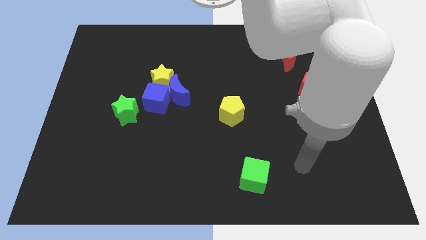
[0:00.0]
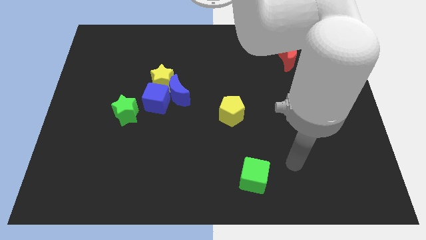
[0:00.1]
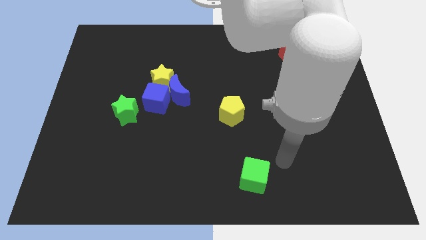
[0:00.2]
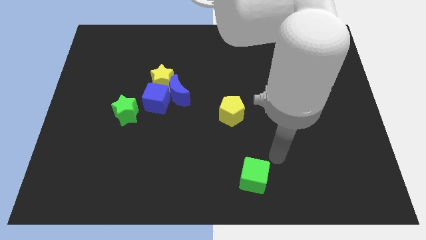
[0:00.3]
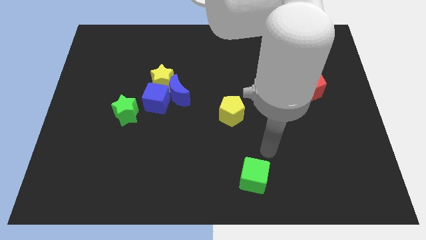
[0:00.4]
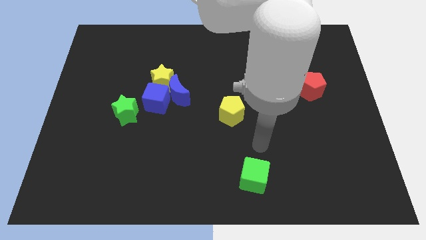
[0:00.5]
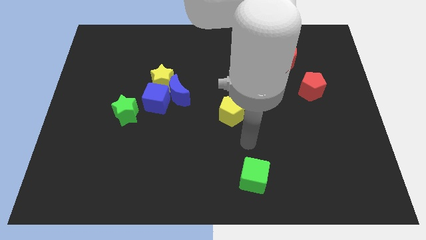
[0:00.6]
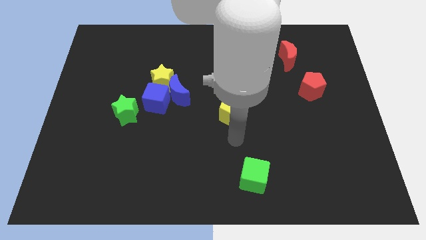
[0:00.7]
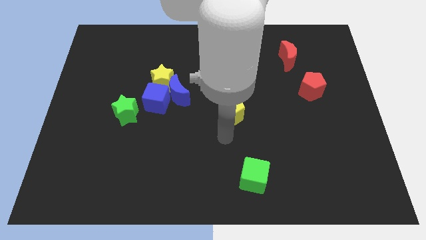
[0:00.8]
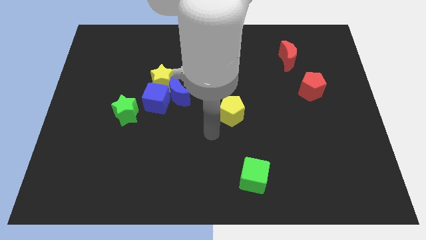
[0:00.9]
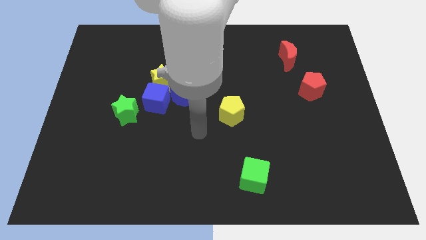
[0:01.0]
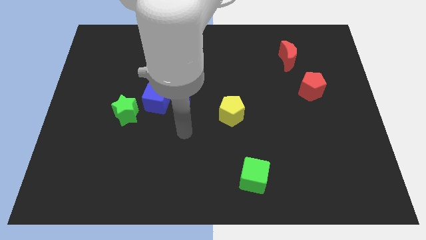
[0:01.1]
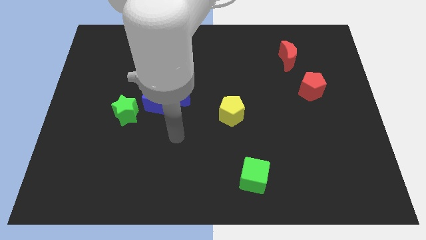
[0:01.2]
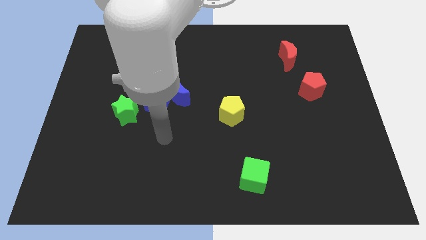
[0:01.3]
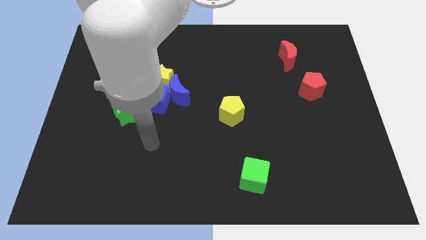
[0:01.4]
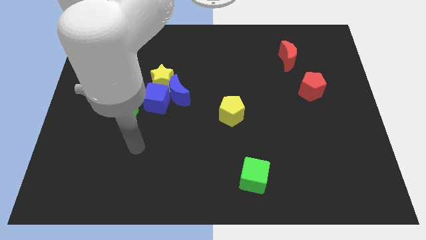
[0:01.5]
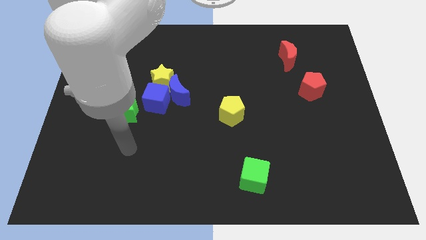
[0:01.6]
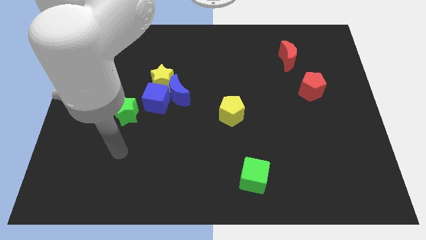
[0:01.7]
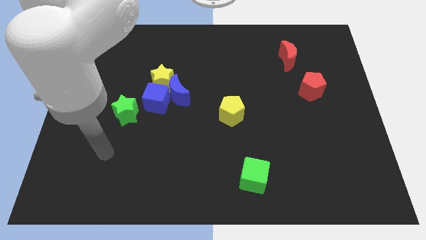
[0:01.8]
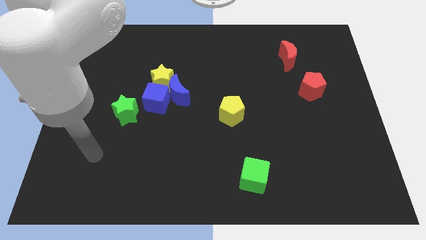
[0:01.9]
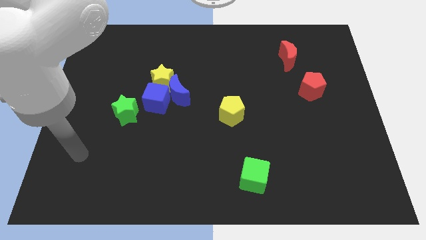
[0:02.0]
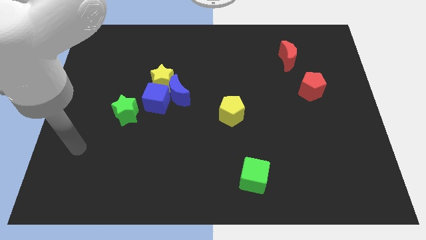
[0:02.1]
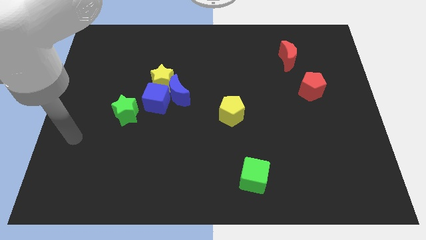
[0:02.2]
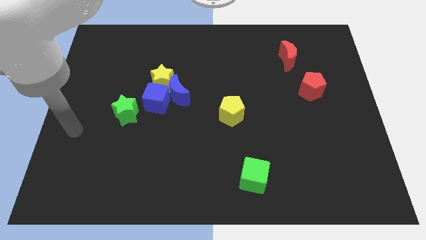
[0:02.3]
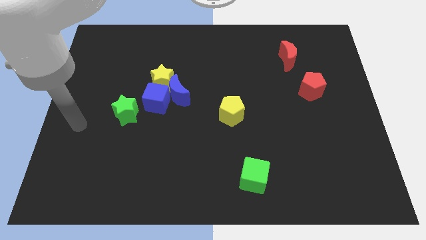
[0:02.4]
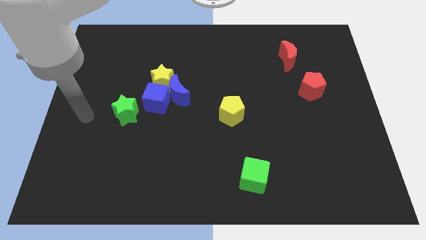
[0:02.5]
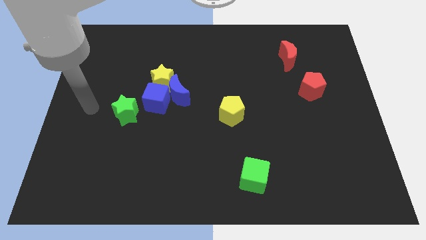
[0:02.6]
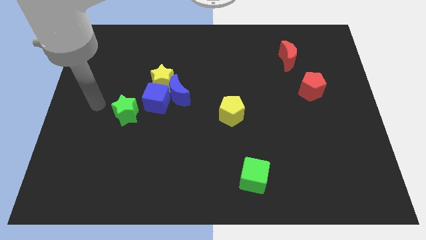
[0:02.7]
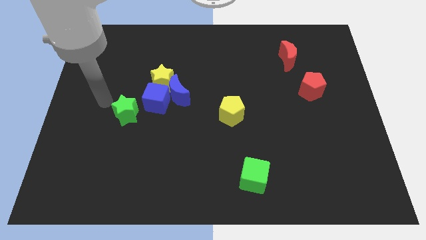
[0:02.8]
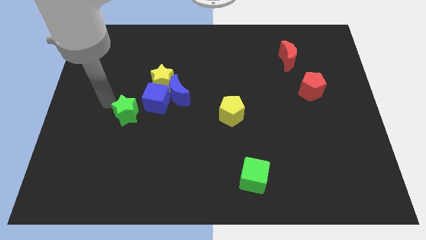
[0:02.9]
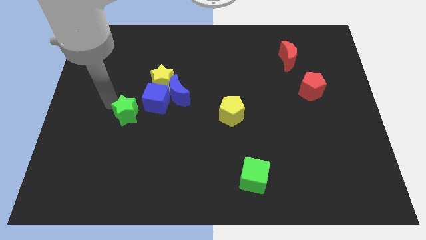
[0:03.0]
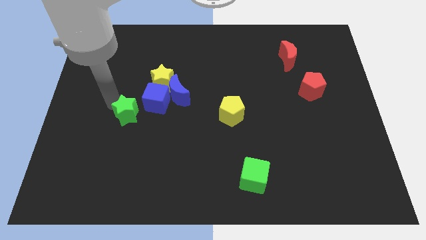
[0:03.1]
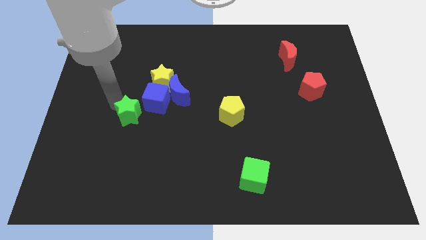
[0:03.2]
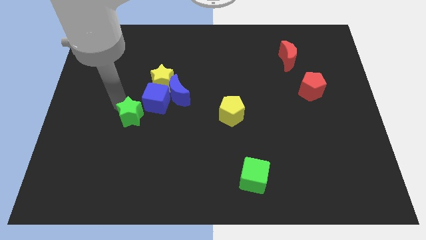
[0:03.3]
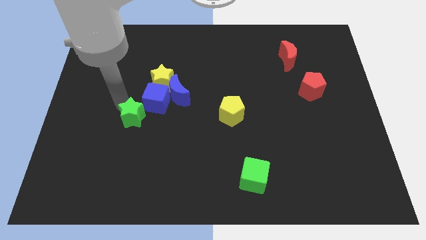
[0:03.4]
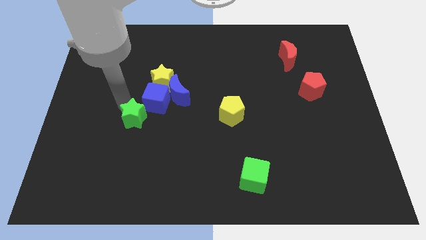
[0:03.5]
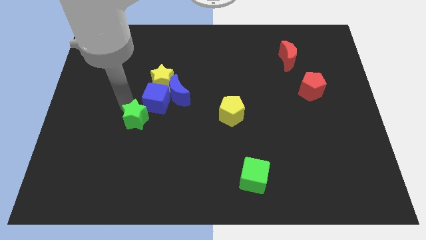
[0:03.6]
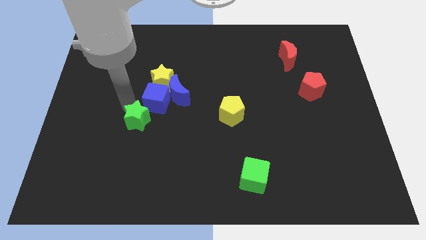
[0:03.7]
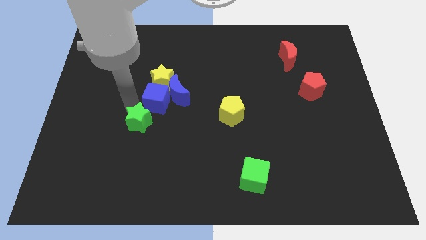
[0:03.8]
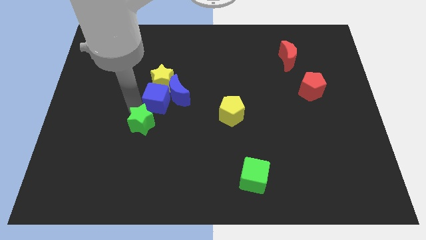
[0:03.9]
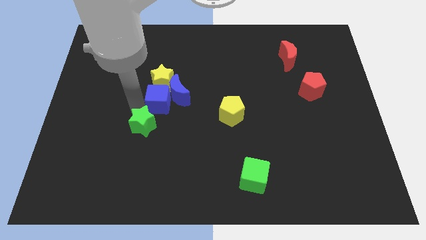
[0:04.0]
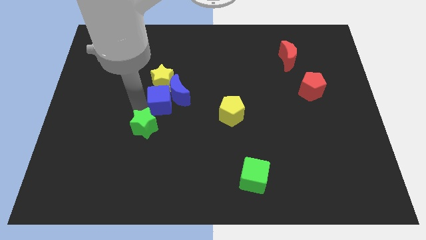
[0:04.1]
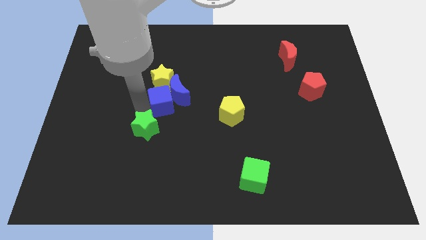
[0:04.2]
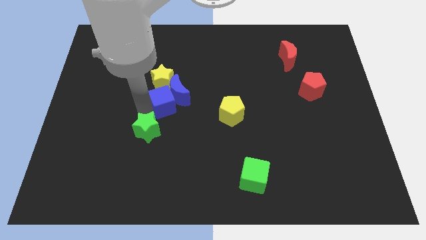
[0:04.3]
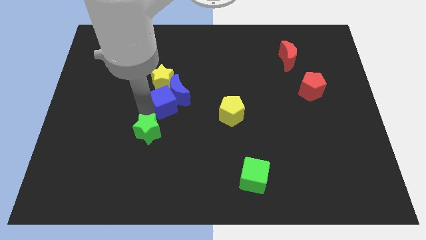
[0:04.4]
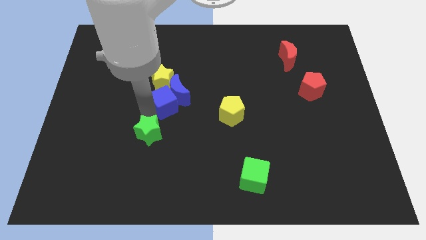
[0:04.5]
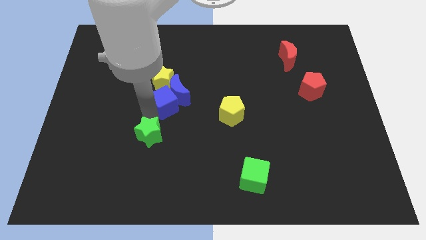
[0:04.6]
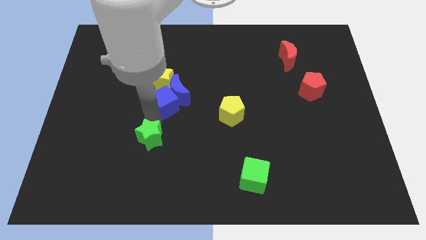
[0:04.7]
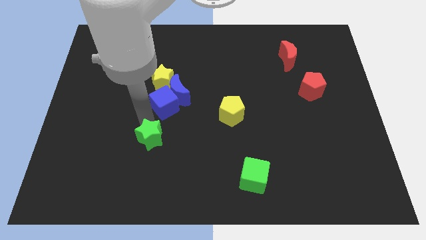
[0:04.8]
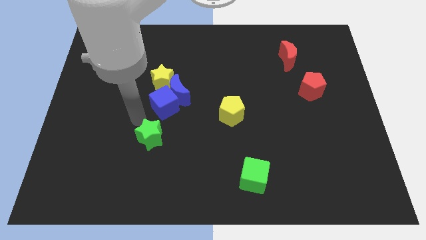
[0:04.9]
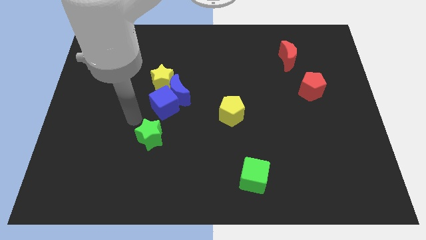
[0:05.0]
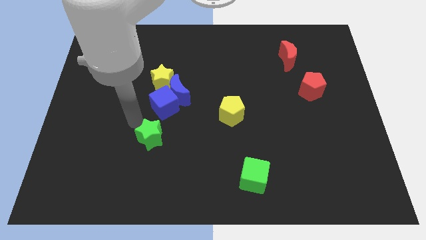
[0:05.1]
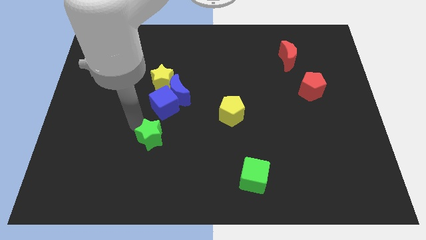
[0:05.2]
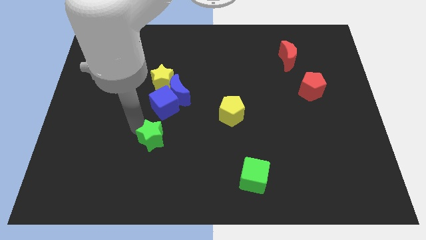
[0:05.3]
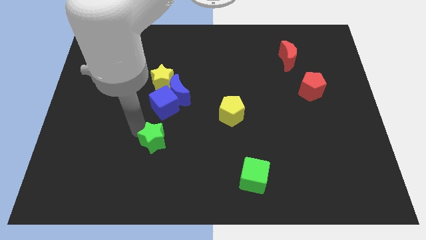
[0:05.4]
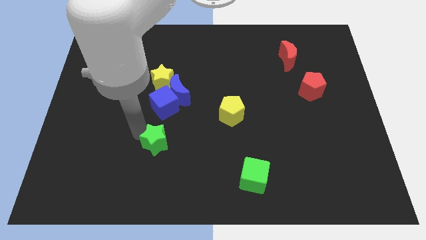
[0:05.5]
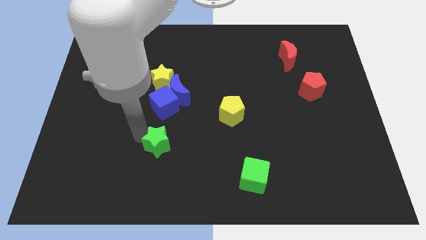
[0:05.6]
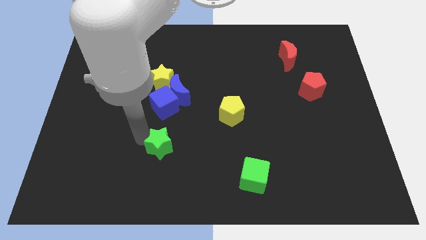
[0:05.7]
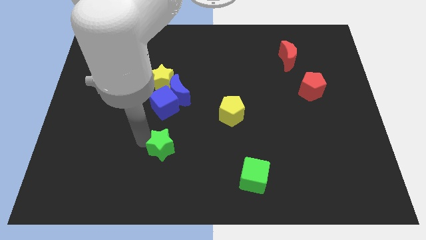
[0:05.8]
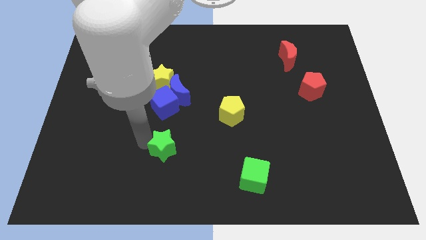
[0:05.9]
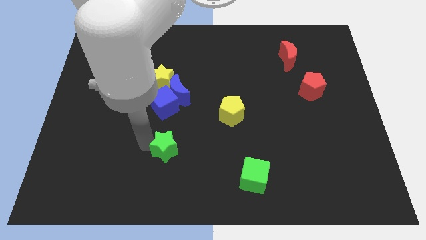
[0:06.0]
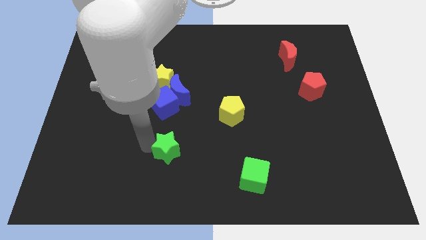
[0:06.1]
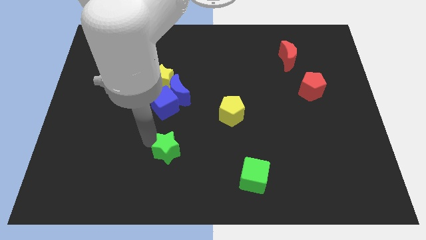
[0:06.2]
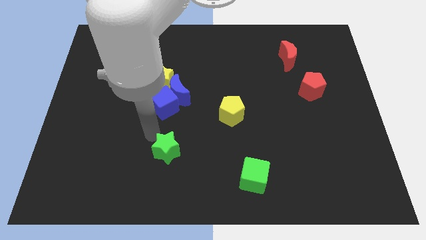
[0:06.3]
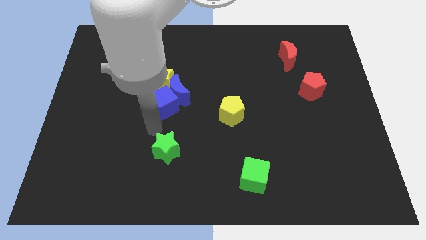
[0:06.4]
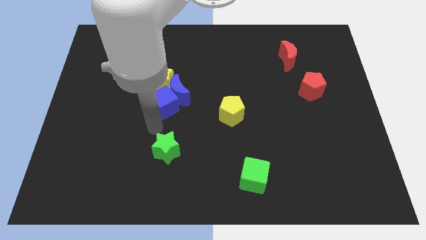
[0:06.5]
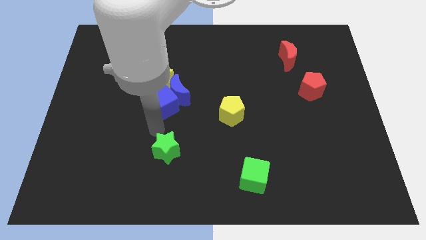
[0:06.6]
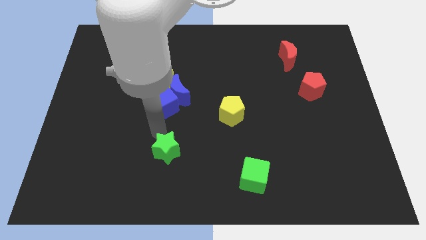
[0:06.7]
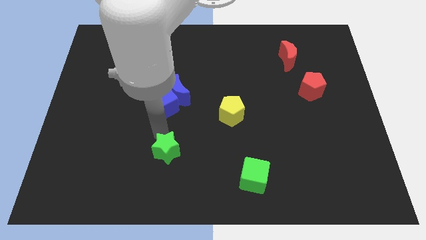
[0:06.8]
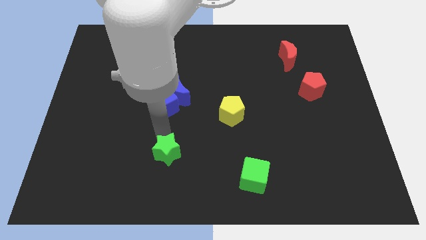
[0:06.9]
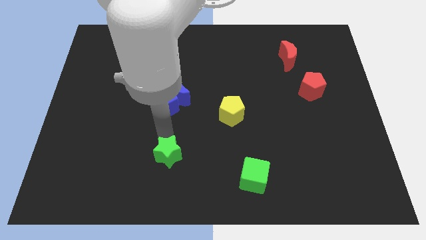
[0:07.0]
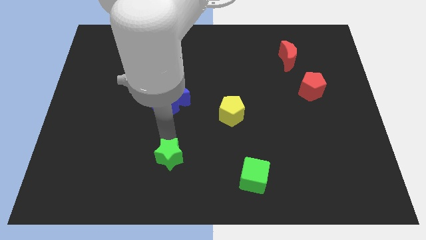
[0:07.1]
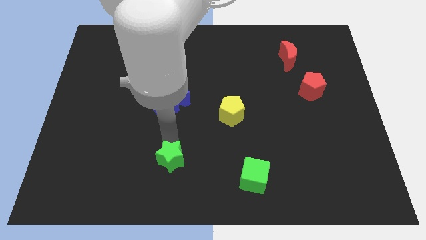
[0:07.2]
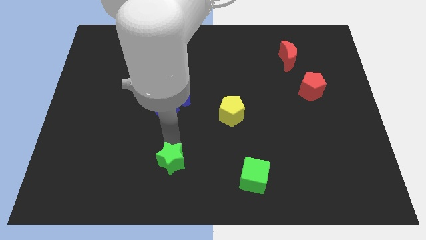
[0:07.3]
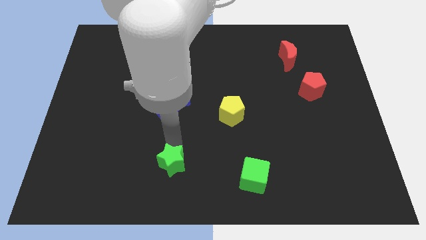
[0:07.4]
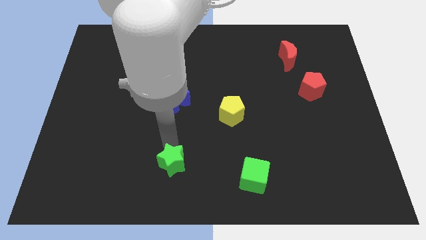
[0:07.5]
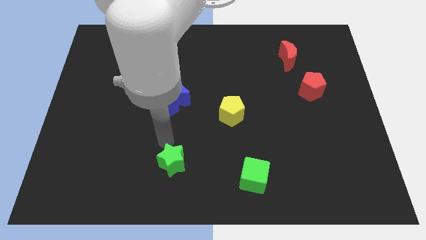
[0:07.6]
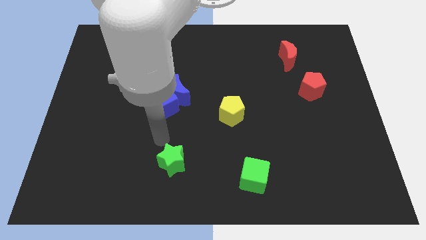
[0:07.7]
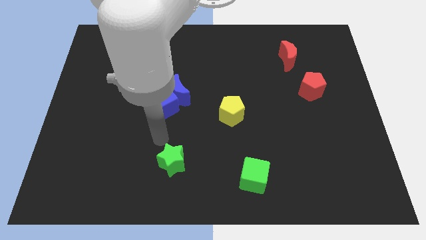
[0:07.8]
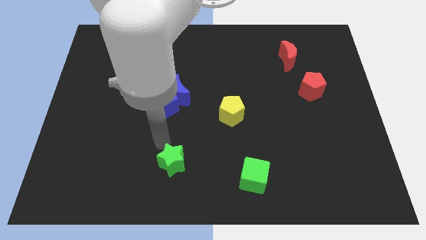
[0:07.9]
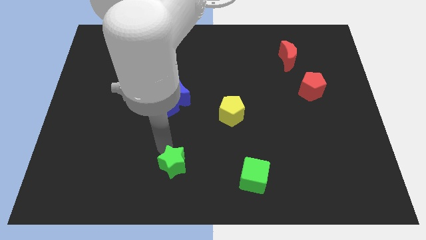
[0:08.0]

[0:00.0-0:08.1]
put the green star to the bottom side
